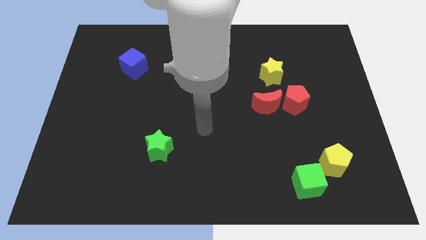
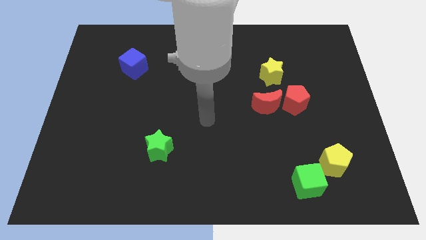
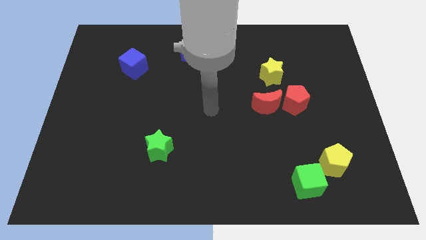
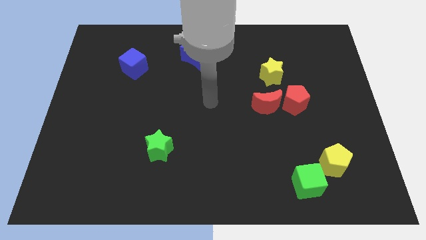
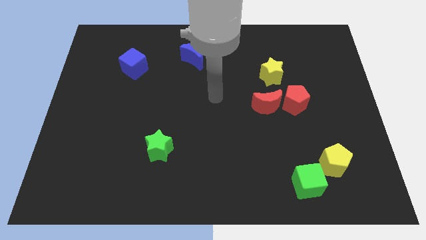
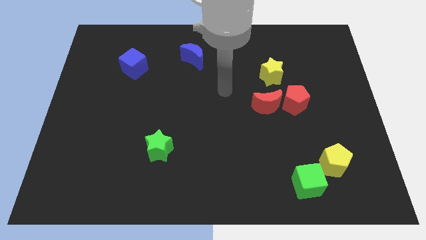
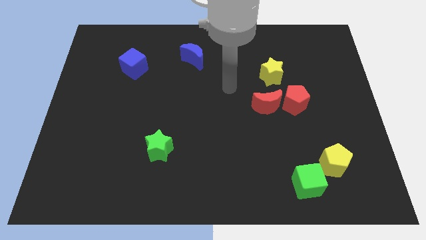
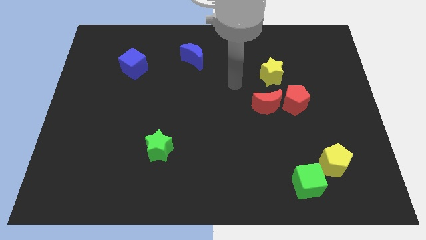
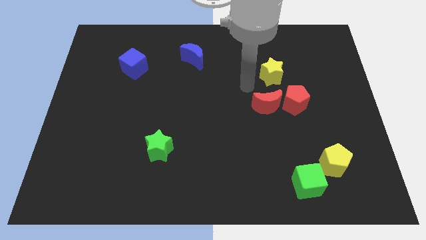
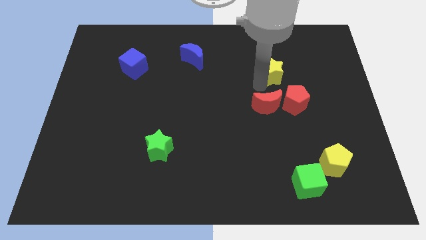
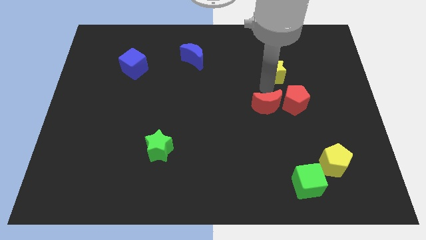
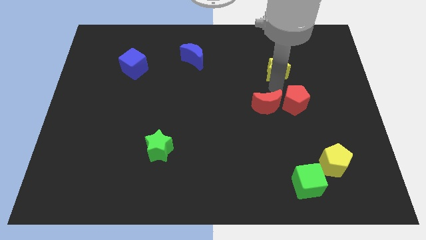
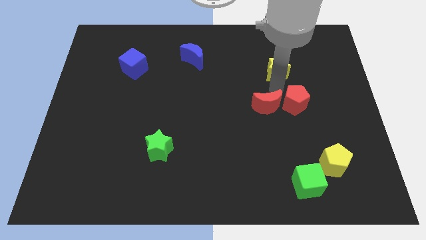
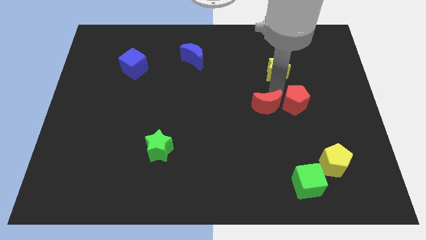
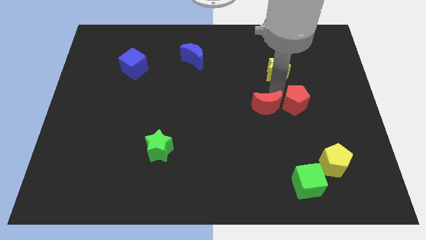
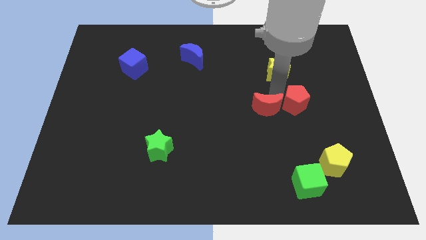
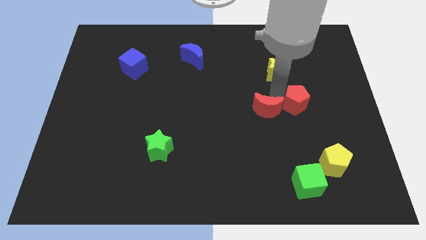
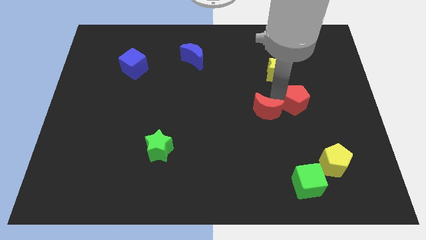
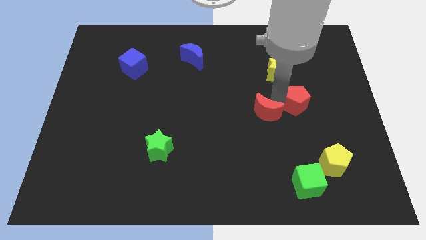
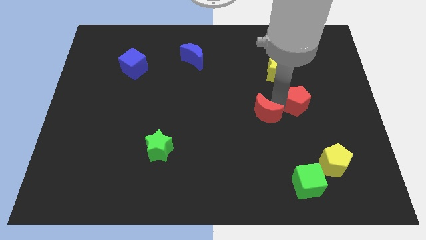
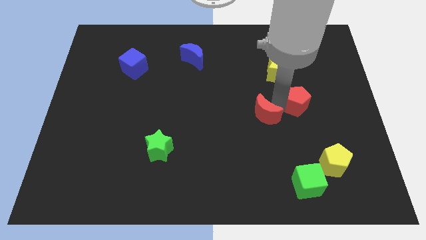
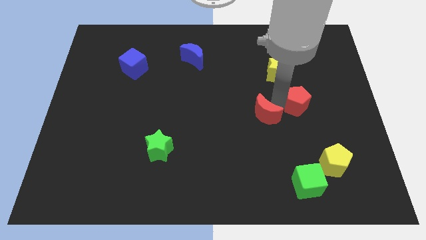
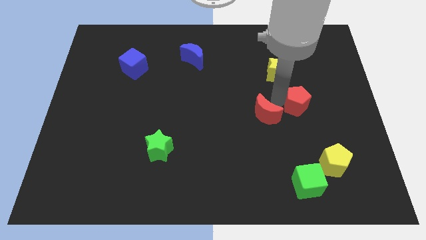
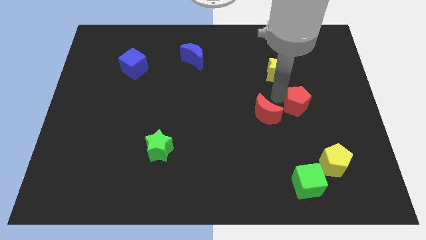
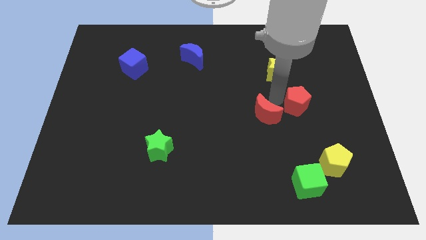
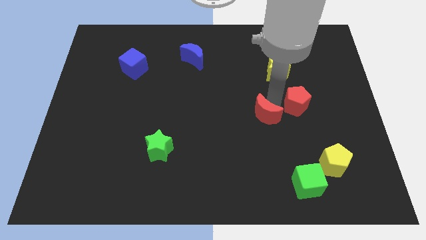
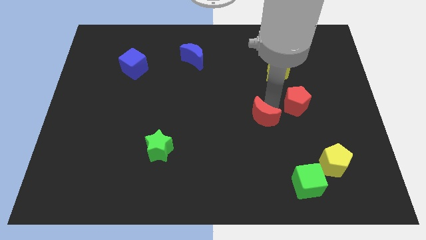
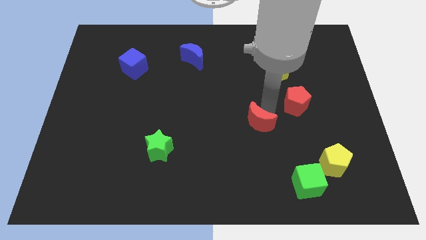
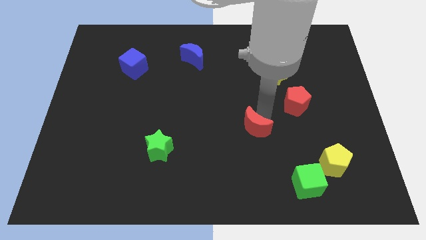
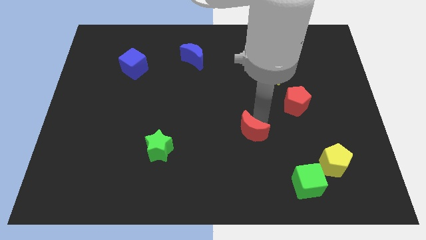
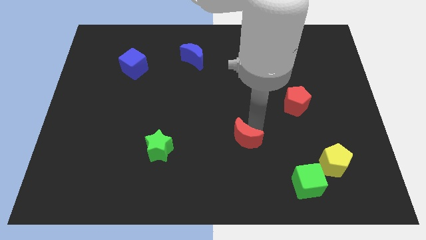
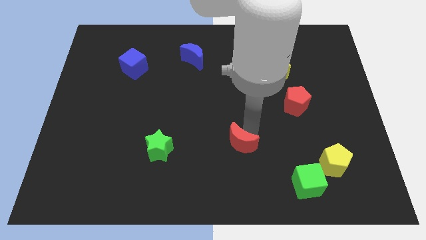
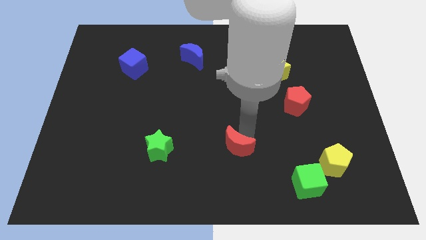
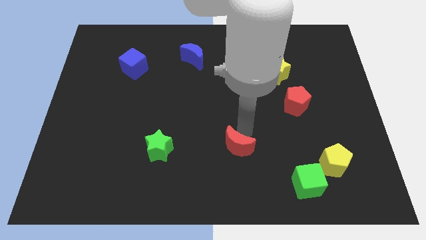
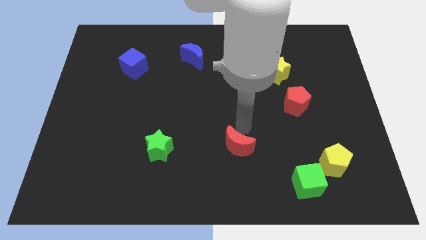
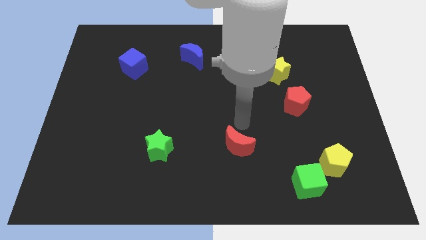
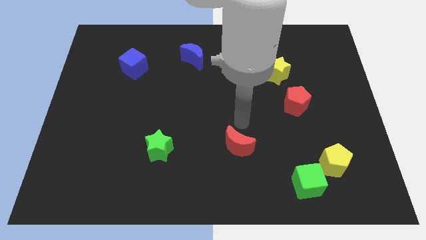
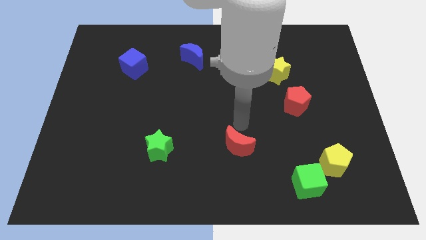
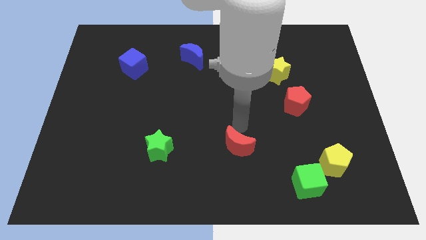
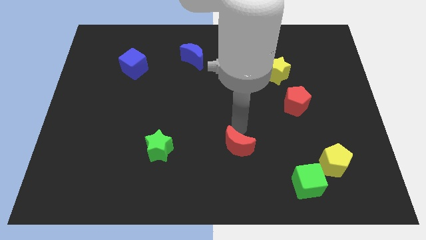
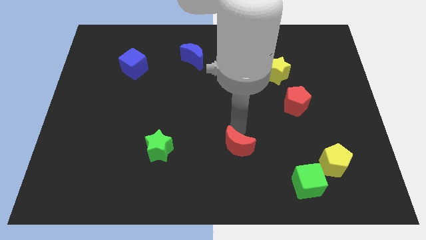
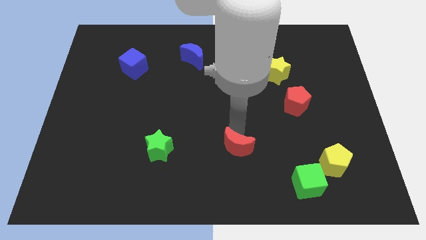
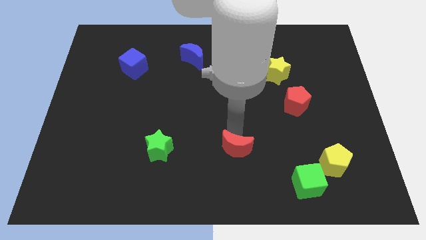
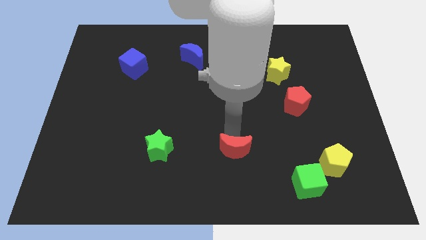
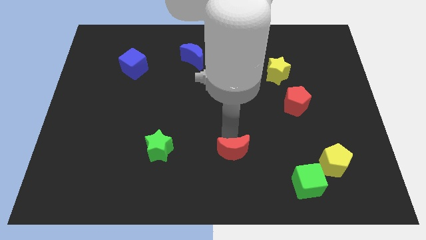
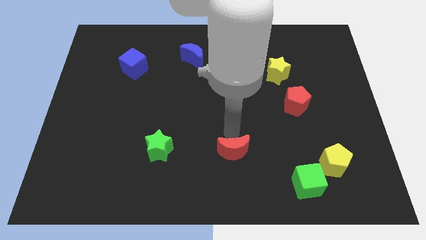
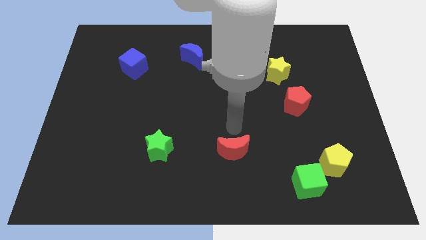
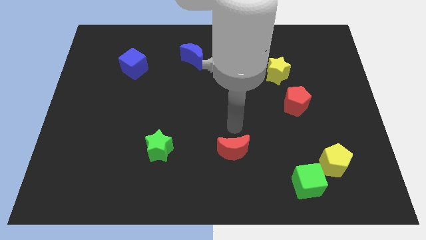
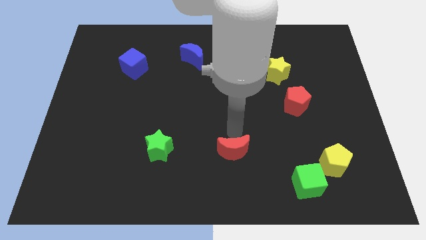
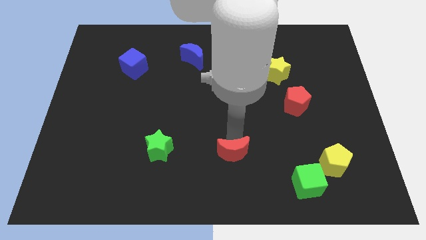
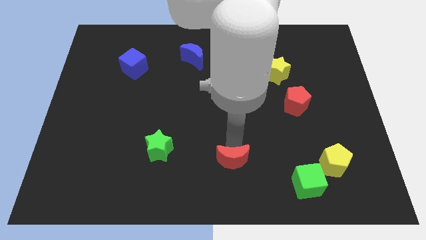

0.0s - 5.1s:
push the red moon to the bottom side

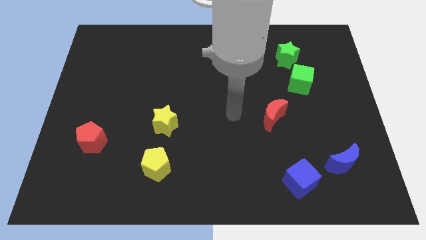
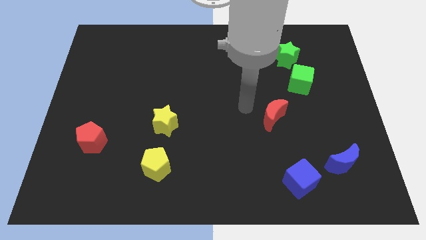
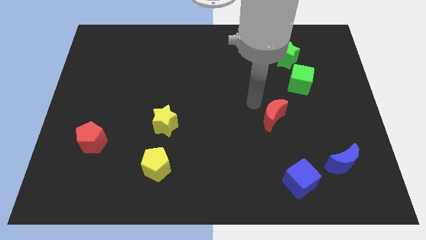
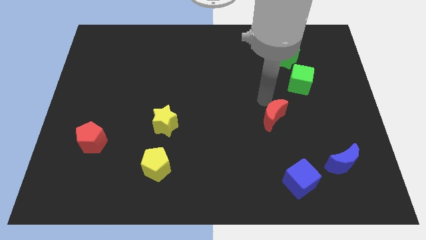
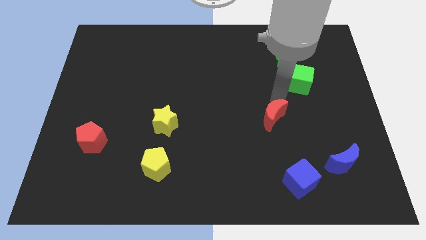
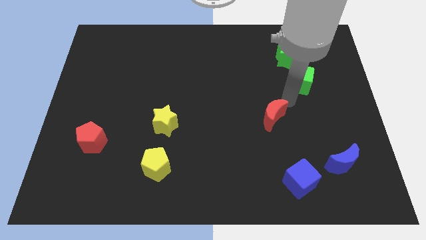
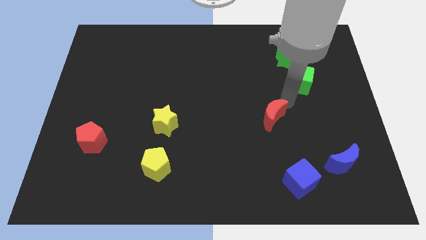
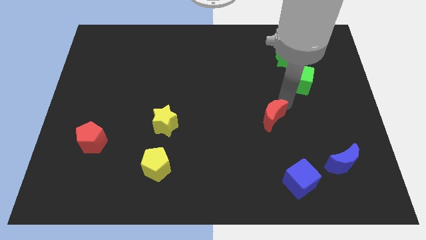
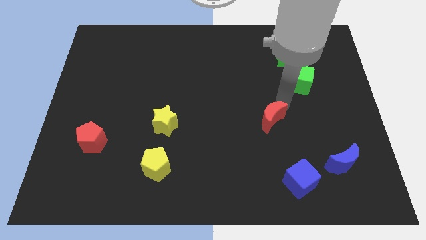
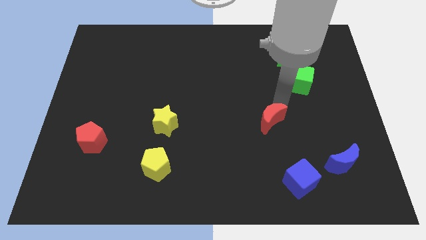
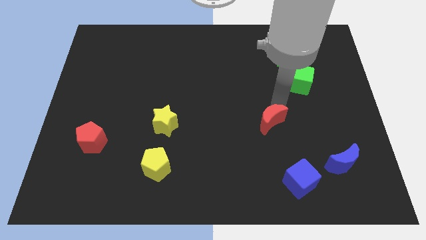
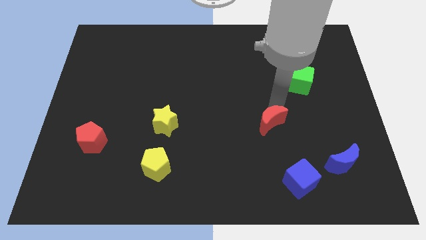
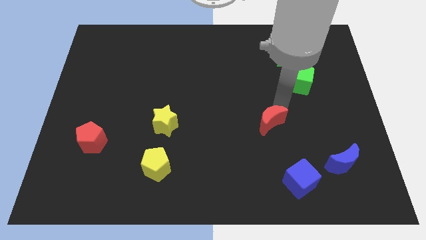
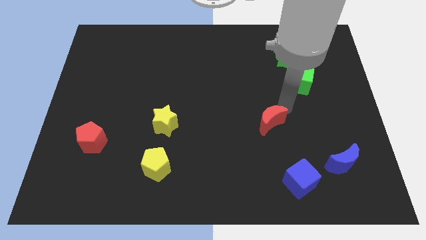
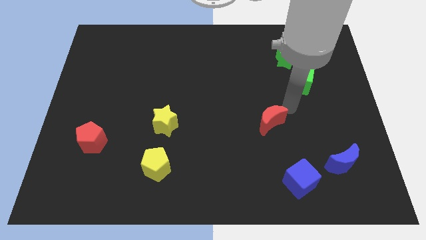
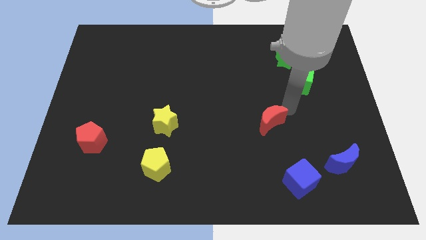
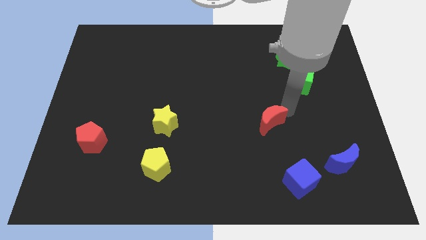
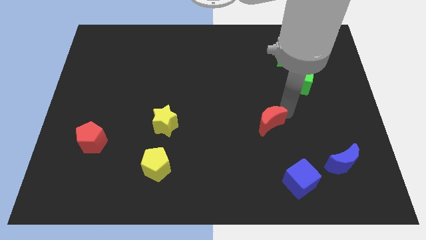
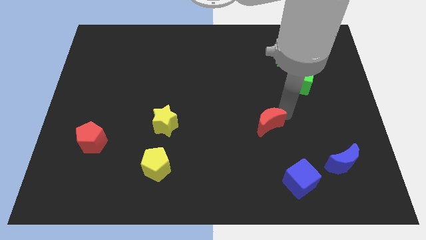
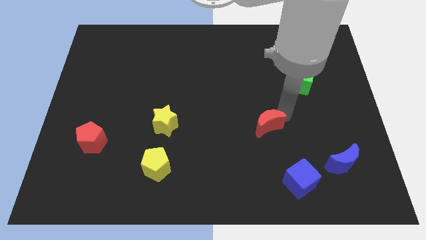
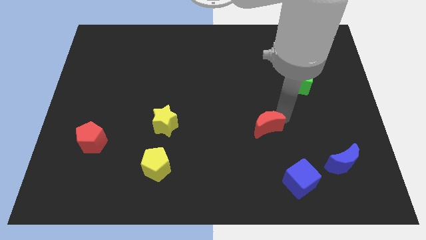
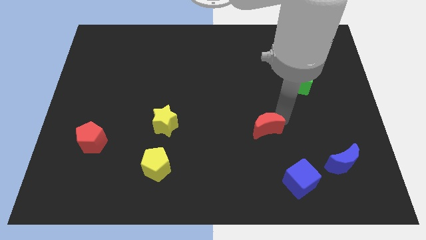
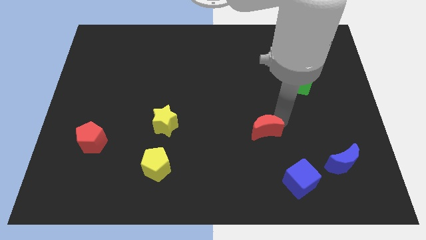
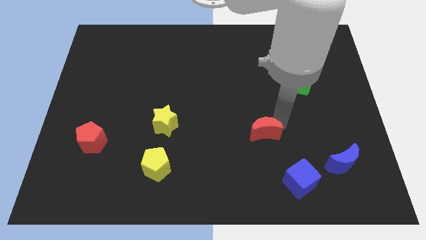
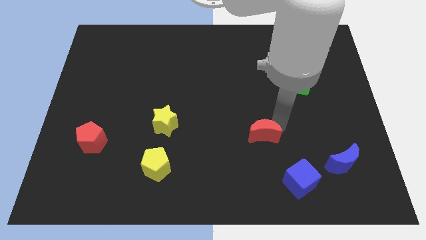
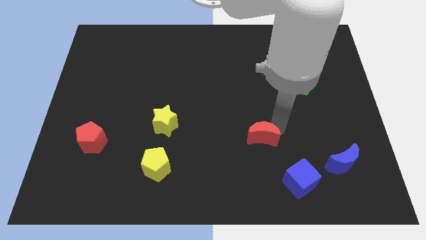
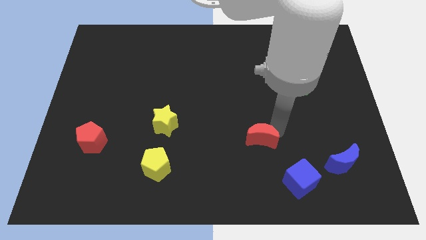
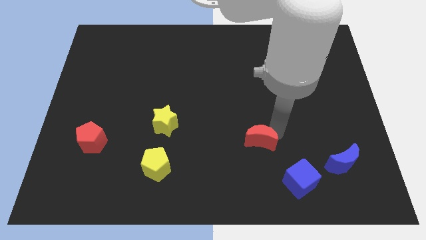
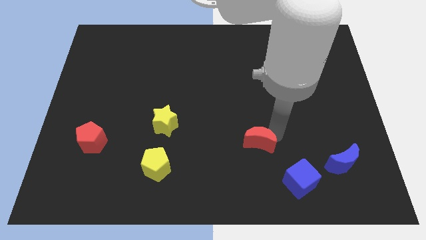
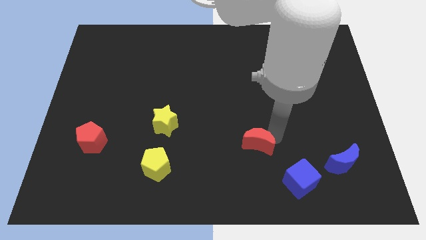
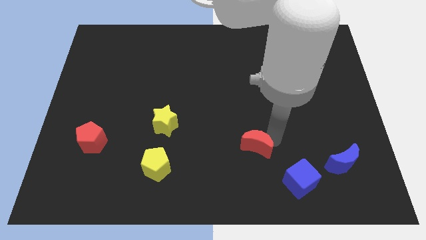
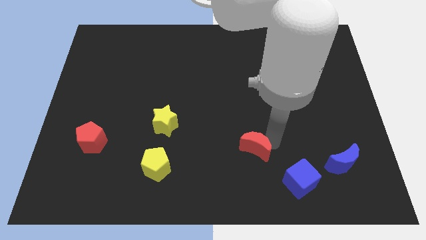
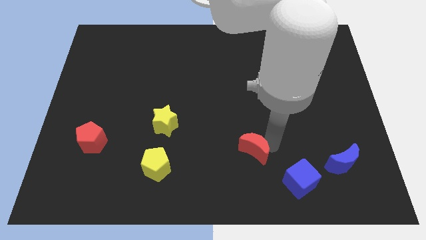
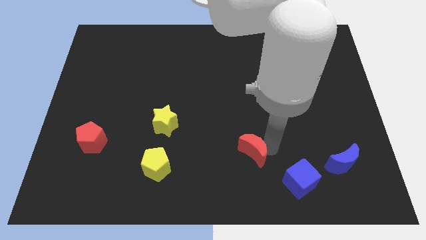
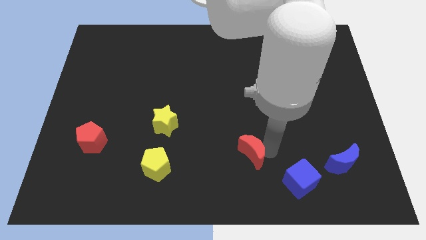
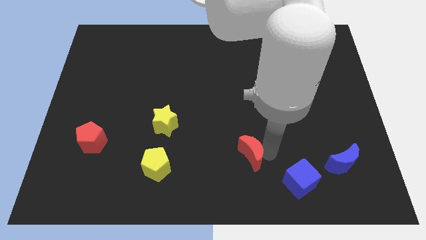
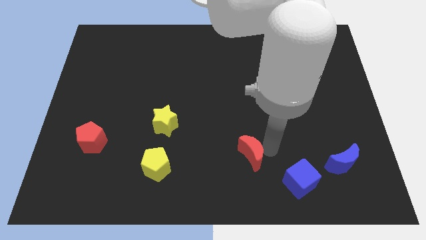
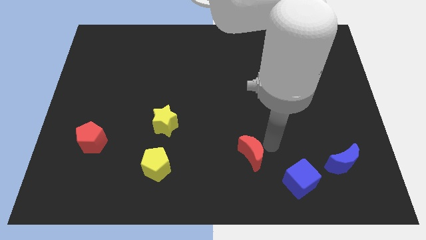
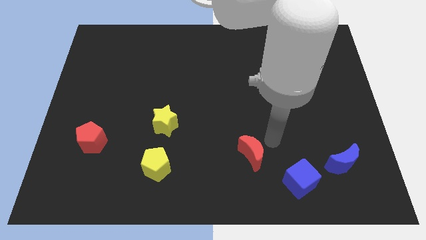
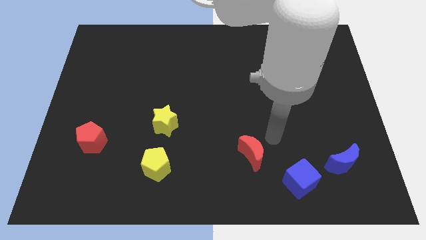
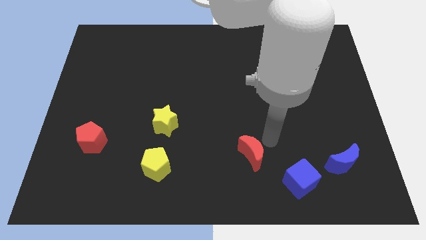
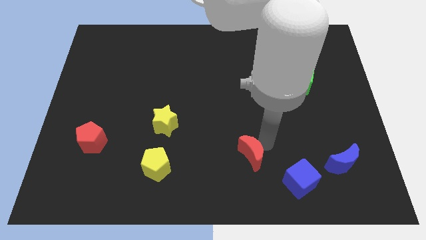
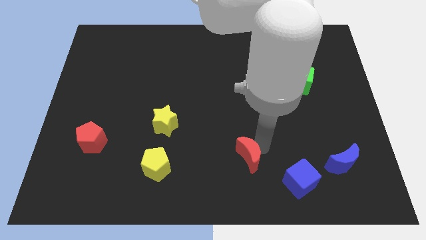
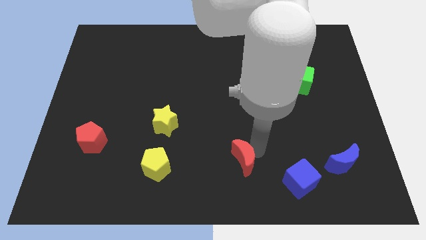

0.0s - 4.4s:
slide the red moon to the bottom
